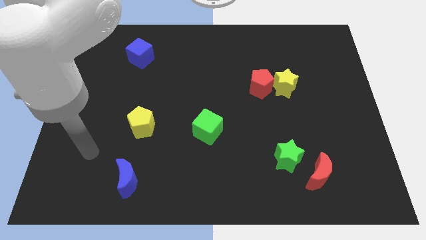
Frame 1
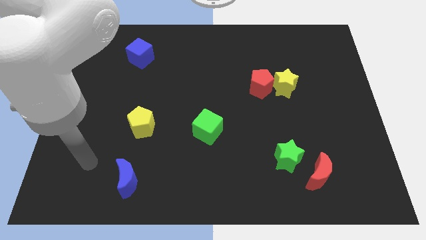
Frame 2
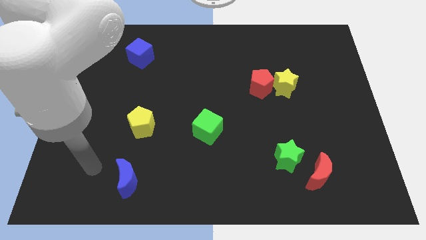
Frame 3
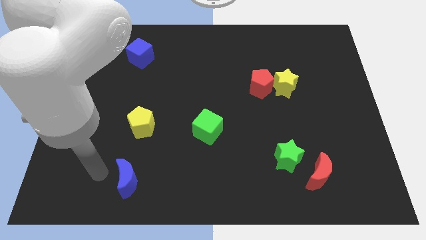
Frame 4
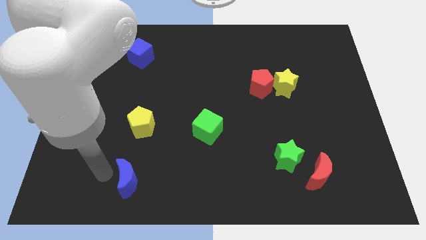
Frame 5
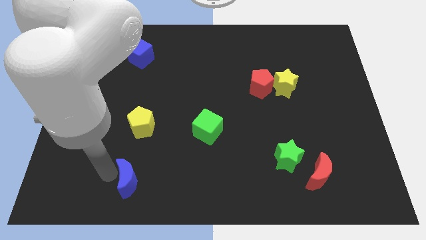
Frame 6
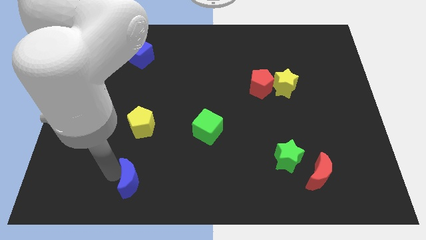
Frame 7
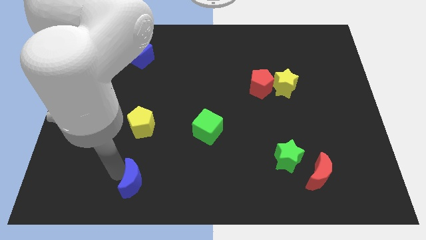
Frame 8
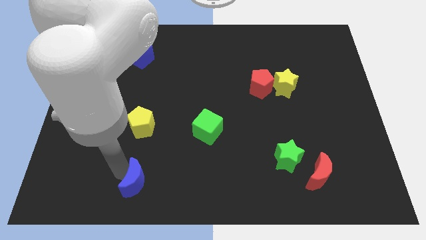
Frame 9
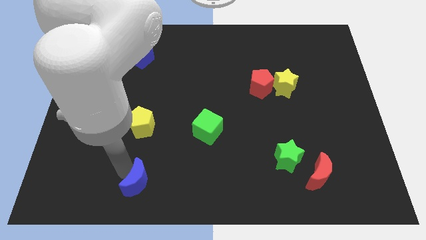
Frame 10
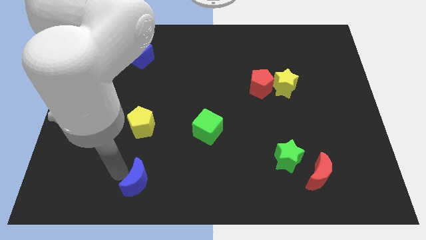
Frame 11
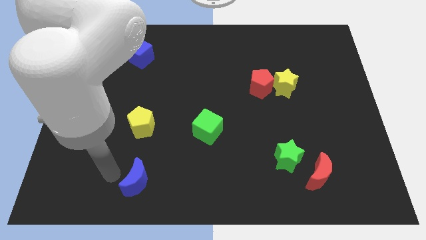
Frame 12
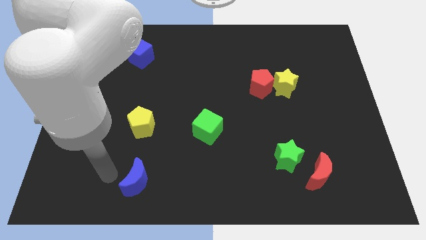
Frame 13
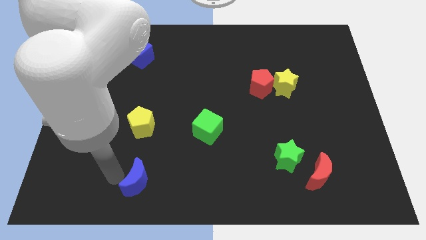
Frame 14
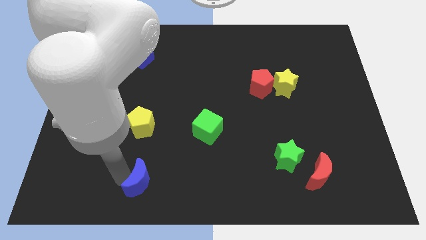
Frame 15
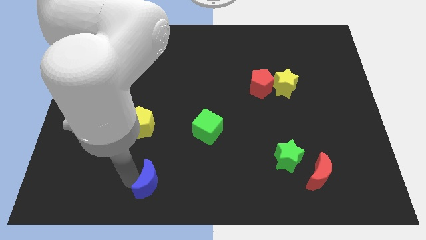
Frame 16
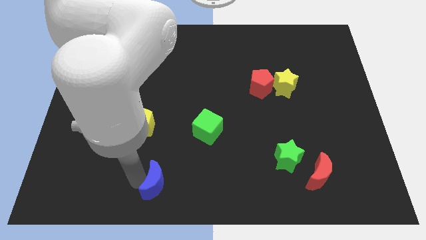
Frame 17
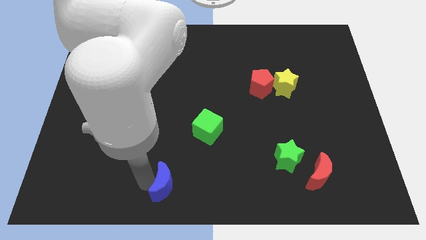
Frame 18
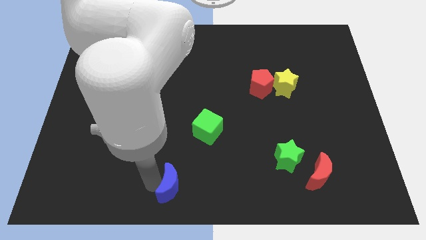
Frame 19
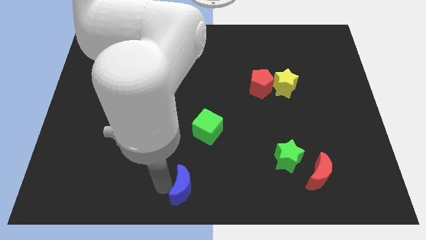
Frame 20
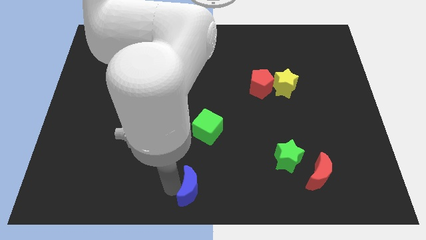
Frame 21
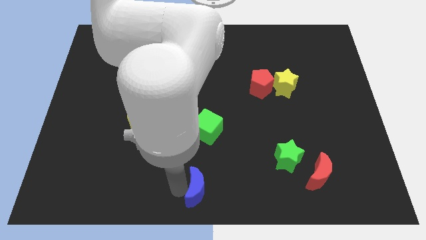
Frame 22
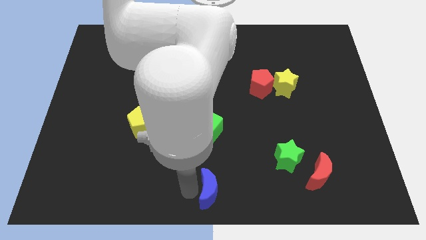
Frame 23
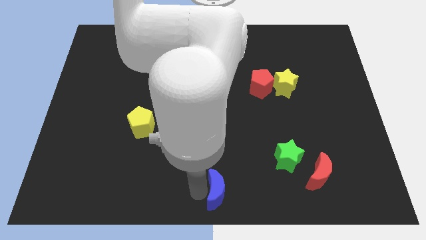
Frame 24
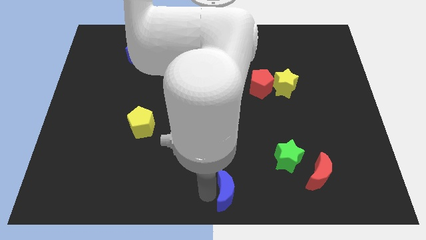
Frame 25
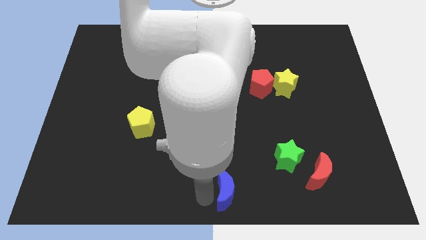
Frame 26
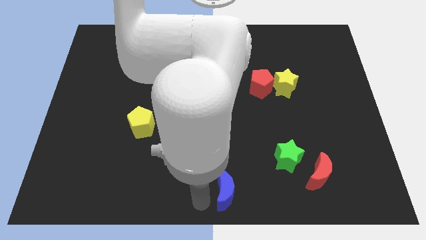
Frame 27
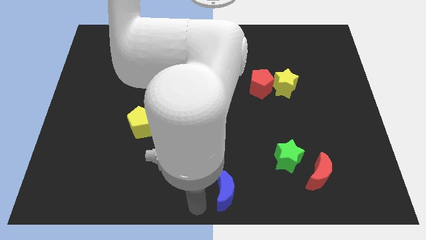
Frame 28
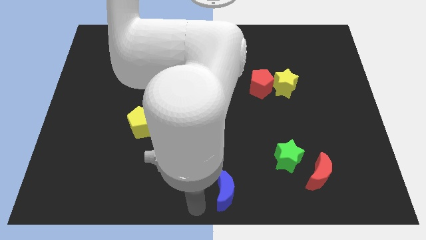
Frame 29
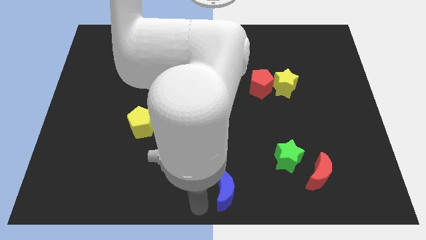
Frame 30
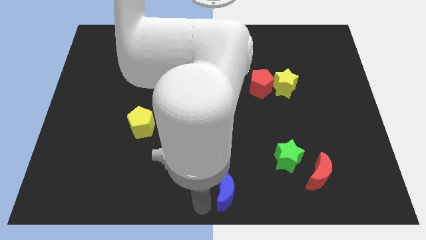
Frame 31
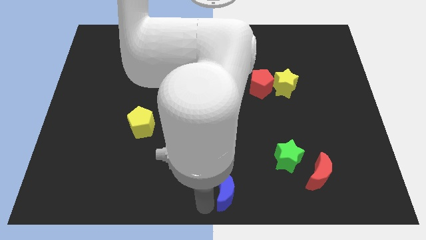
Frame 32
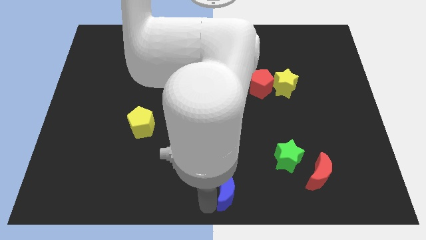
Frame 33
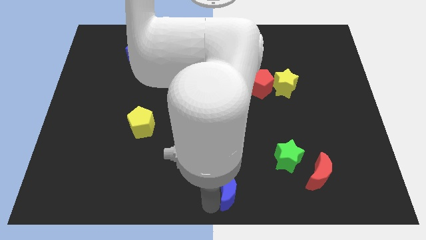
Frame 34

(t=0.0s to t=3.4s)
slide the blue moon right

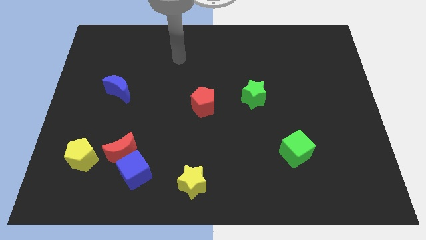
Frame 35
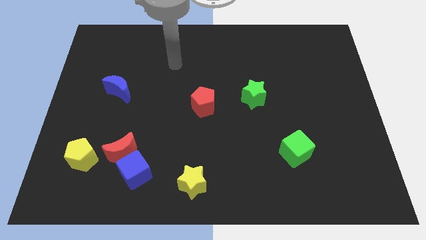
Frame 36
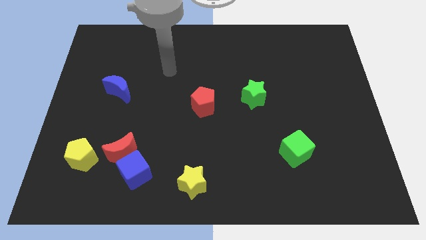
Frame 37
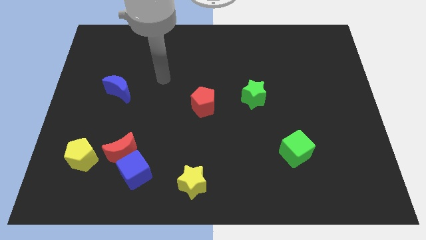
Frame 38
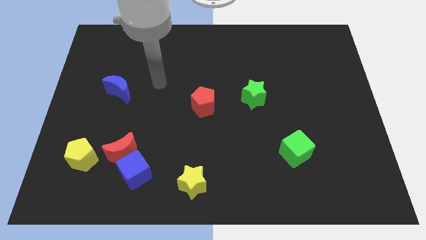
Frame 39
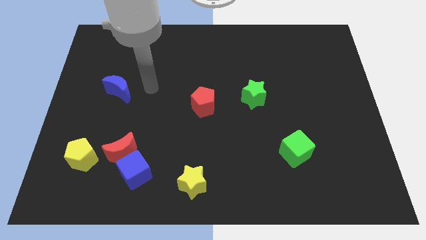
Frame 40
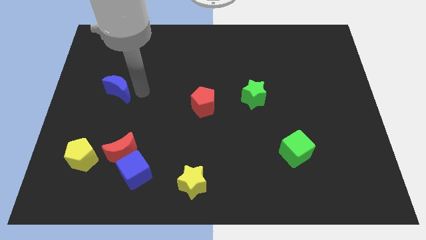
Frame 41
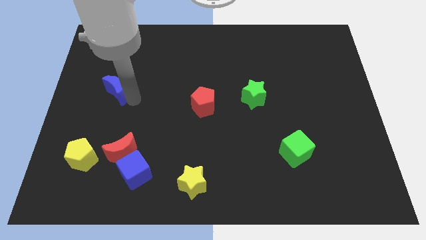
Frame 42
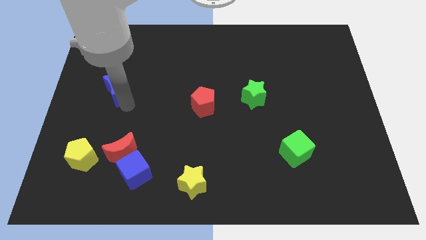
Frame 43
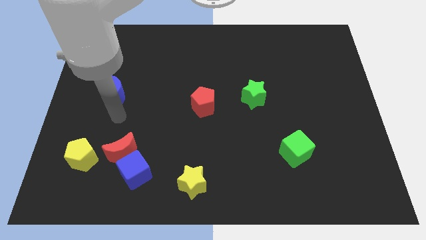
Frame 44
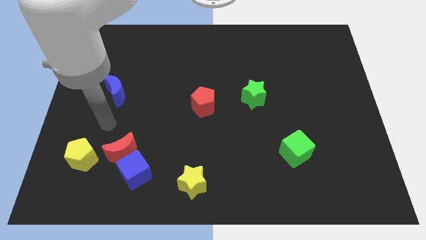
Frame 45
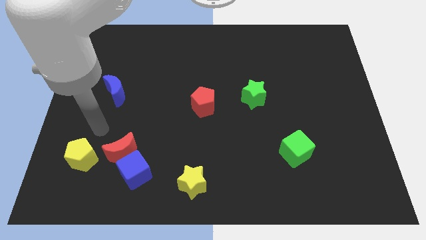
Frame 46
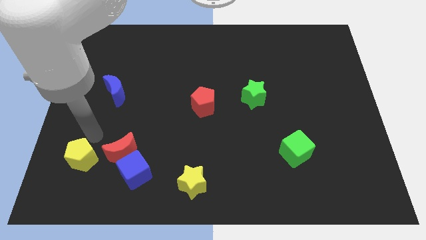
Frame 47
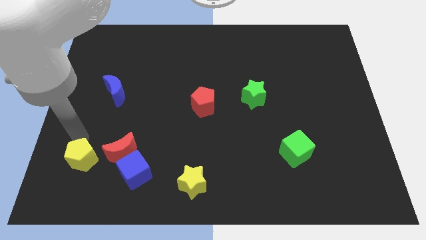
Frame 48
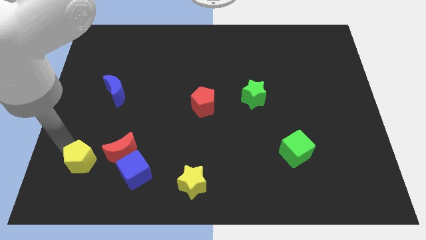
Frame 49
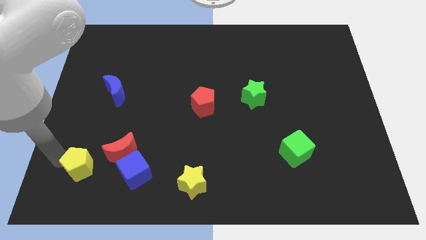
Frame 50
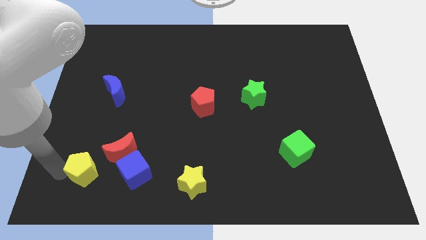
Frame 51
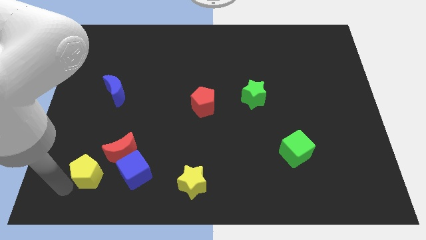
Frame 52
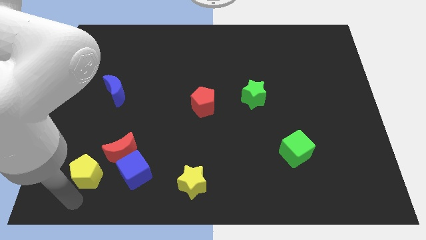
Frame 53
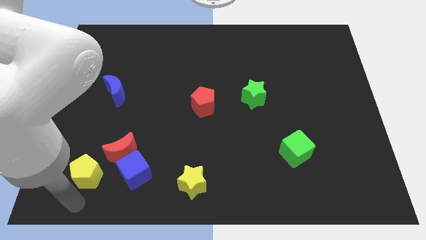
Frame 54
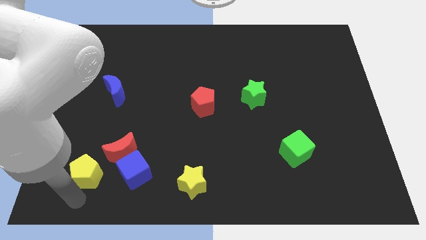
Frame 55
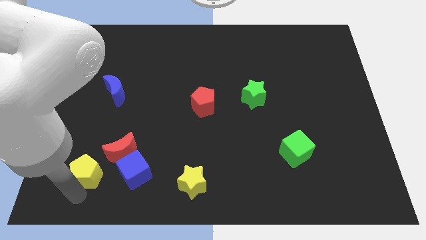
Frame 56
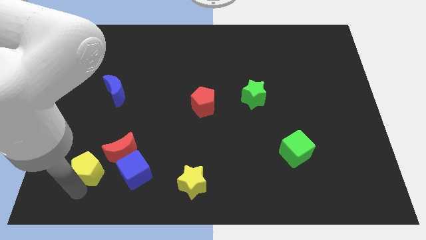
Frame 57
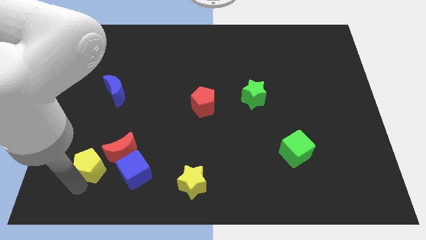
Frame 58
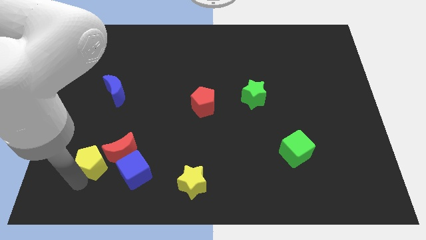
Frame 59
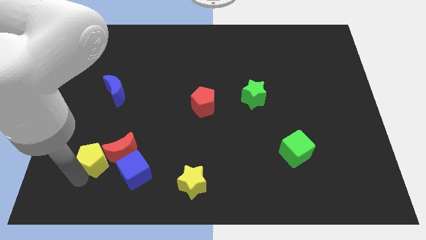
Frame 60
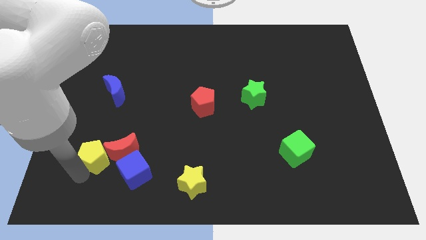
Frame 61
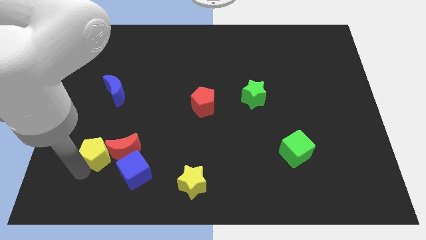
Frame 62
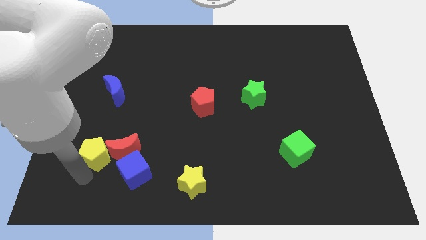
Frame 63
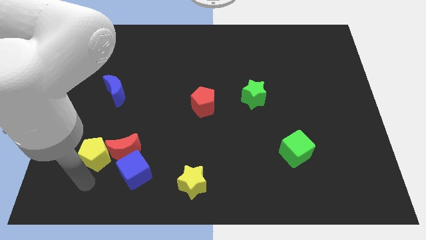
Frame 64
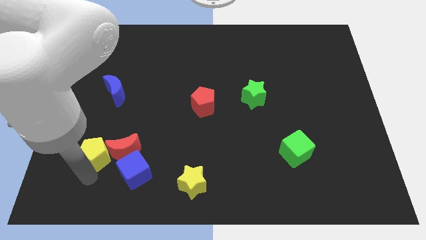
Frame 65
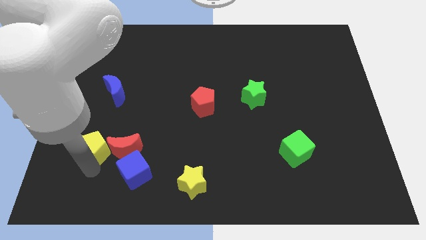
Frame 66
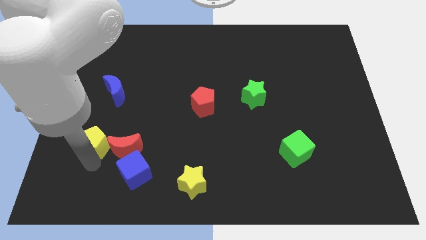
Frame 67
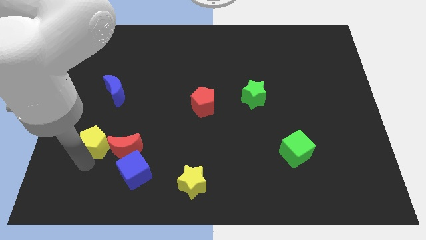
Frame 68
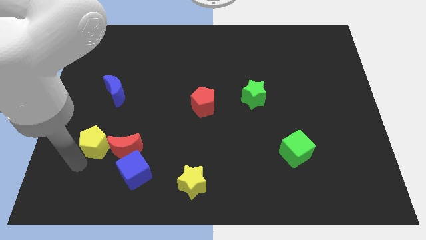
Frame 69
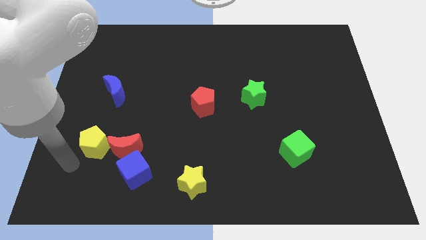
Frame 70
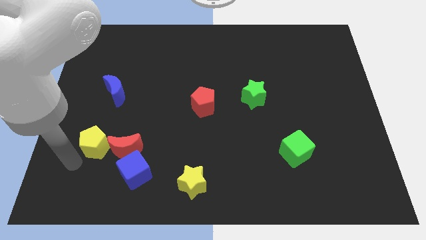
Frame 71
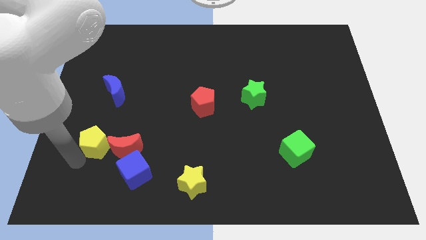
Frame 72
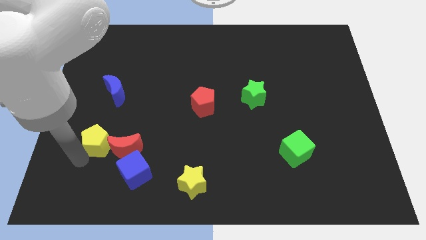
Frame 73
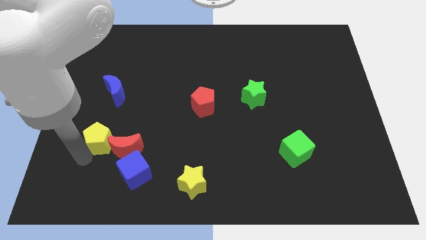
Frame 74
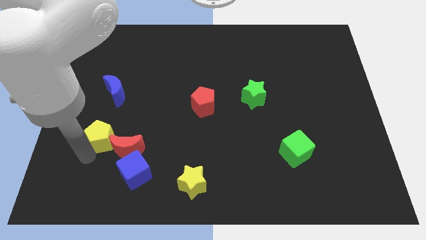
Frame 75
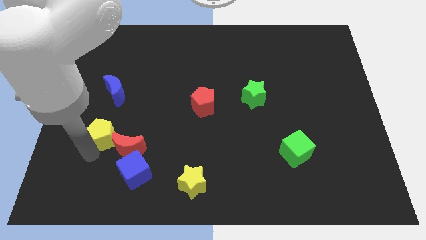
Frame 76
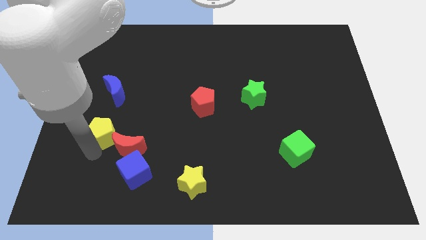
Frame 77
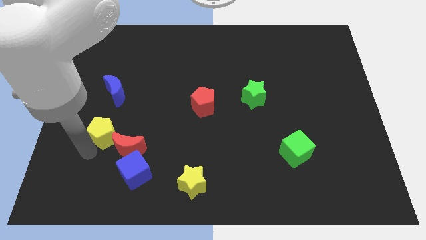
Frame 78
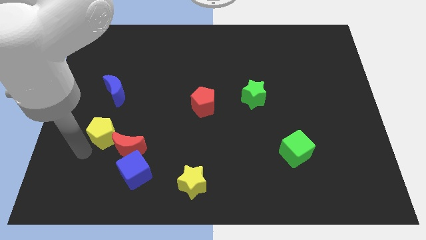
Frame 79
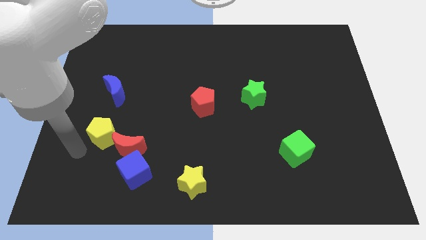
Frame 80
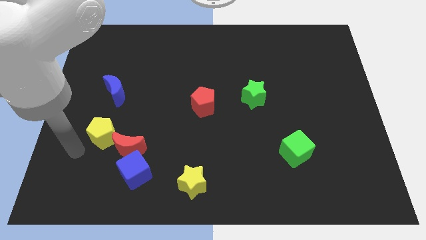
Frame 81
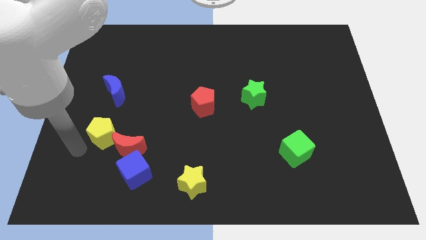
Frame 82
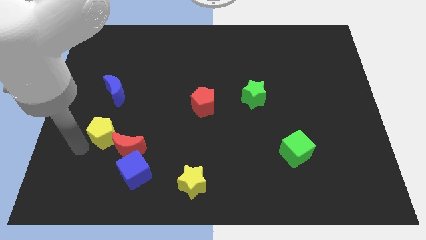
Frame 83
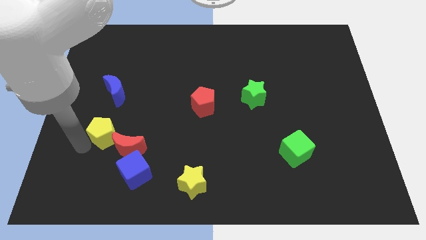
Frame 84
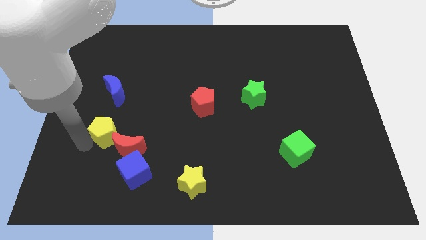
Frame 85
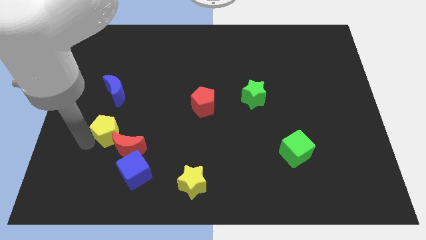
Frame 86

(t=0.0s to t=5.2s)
slightly slide the yellow pentagon upwards and then right
